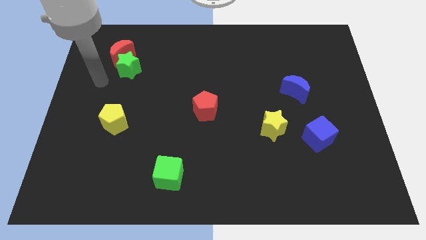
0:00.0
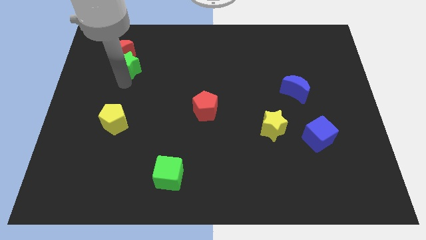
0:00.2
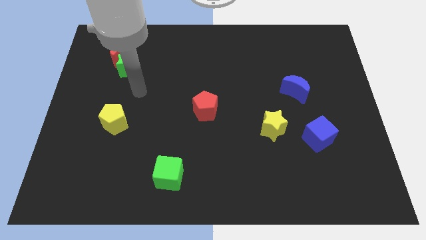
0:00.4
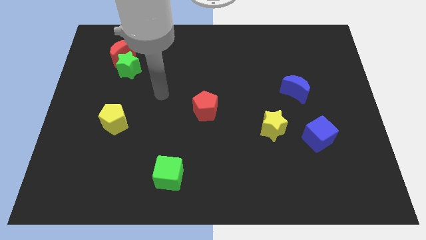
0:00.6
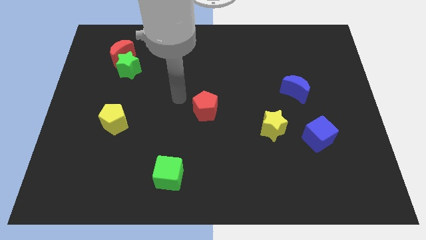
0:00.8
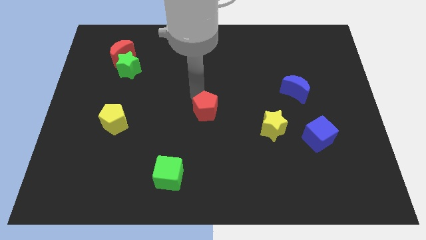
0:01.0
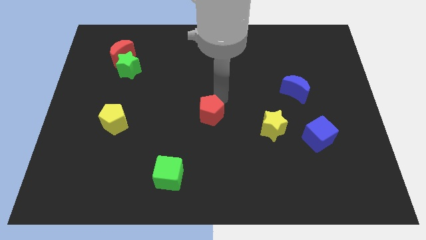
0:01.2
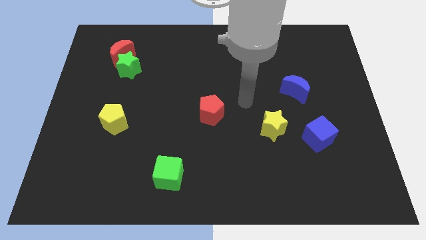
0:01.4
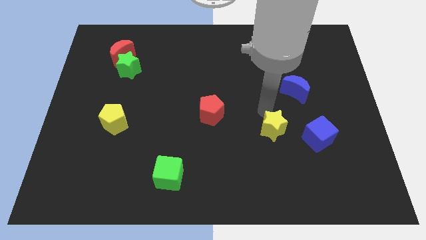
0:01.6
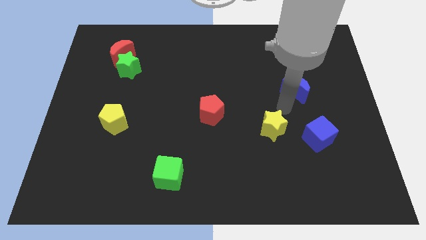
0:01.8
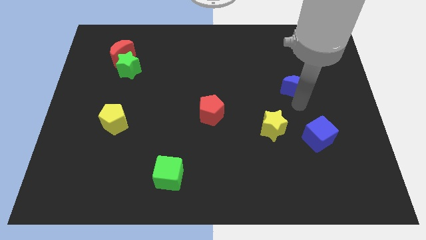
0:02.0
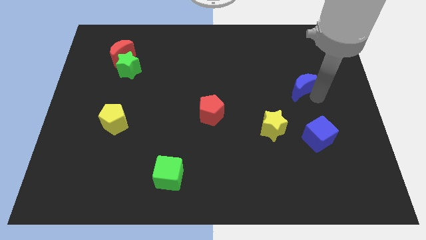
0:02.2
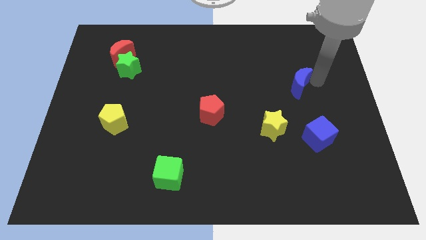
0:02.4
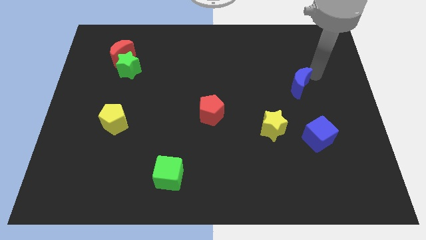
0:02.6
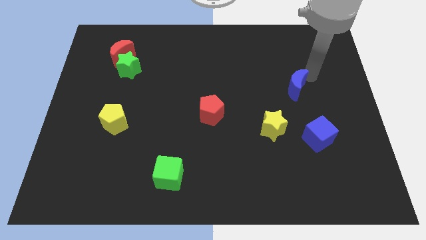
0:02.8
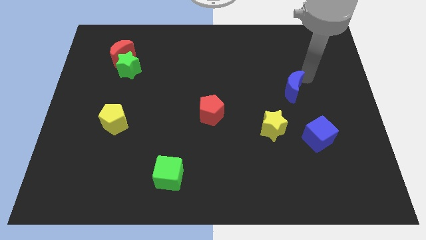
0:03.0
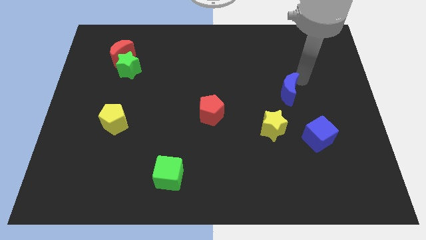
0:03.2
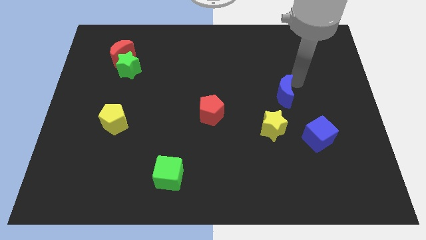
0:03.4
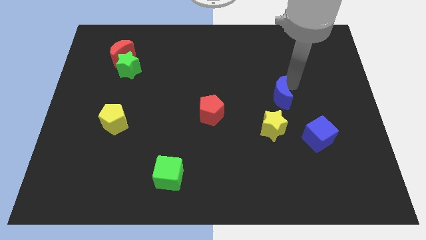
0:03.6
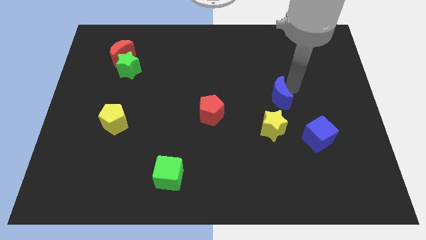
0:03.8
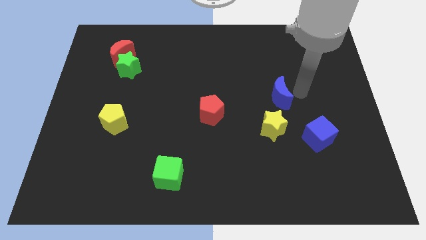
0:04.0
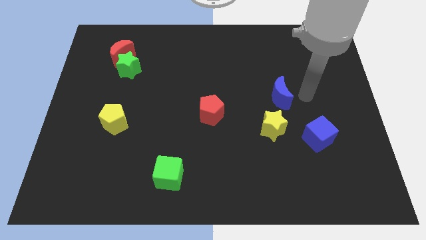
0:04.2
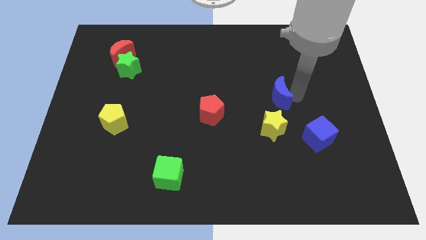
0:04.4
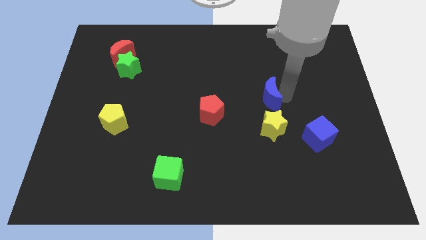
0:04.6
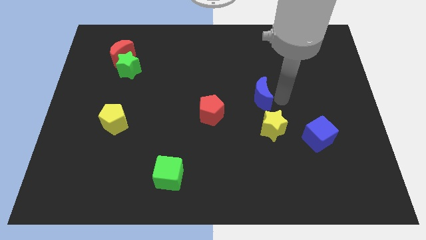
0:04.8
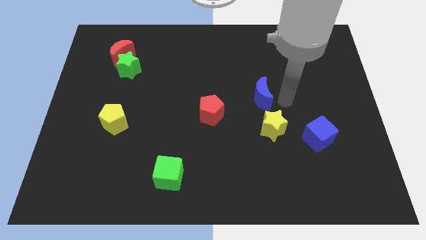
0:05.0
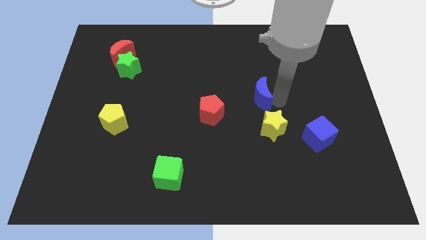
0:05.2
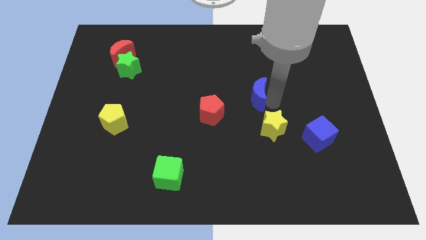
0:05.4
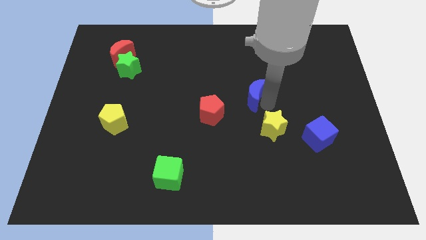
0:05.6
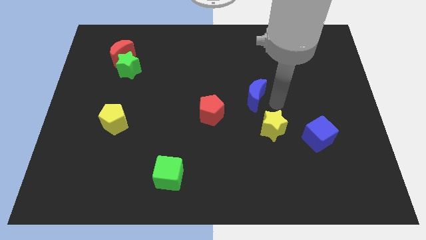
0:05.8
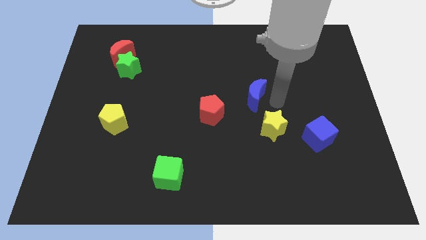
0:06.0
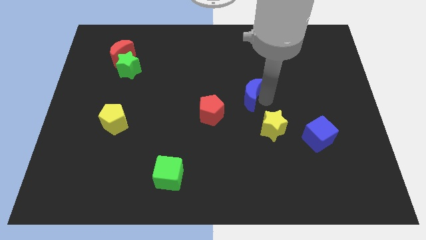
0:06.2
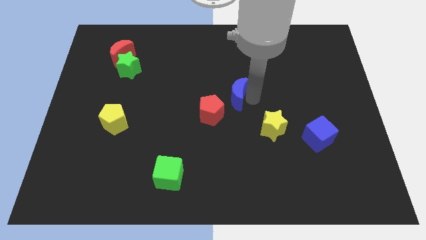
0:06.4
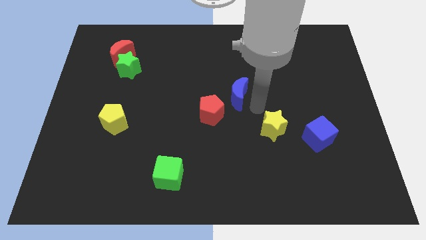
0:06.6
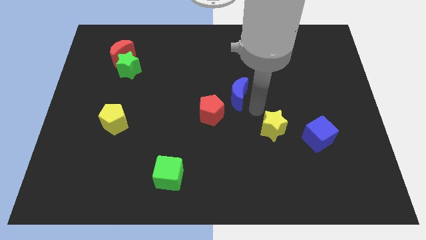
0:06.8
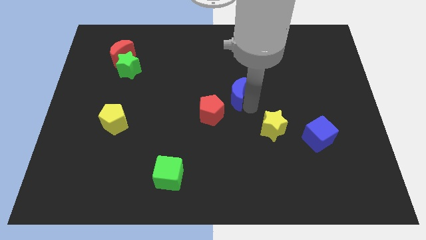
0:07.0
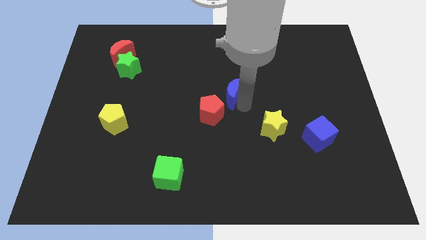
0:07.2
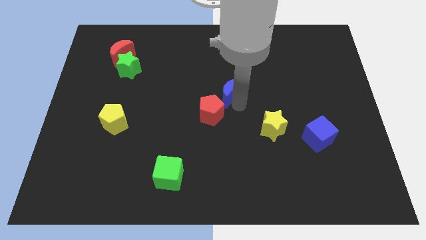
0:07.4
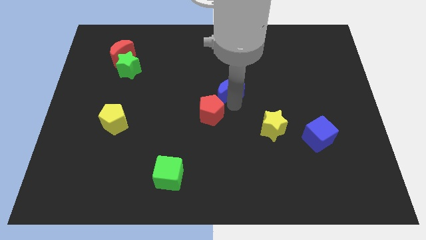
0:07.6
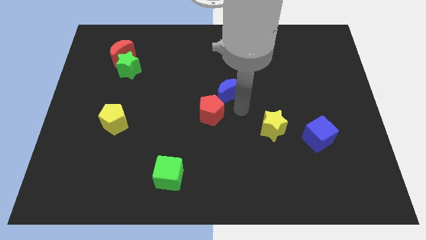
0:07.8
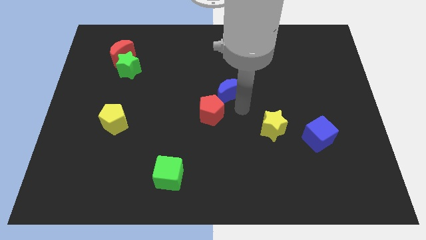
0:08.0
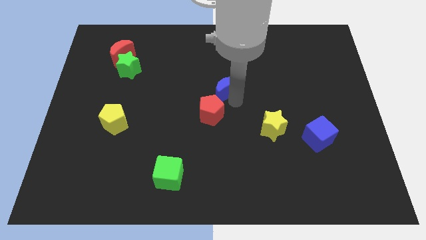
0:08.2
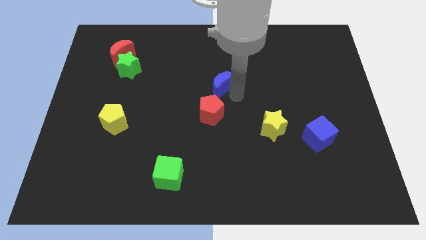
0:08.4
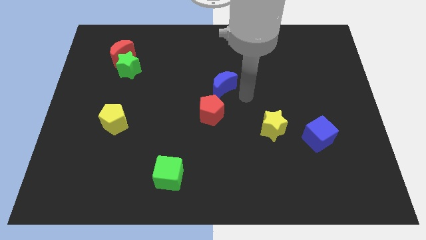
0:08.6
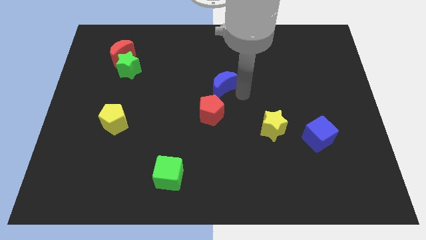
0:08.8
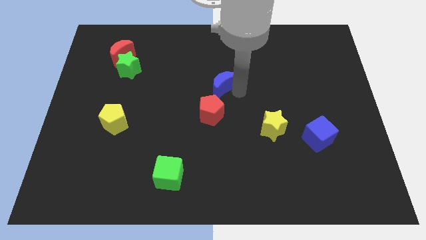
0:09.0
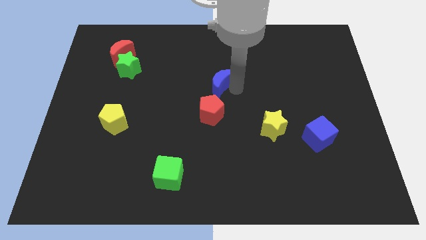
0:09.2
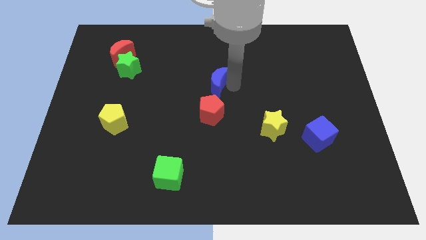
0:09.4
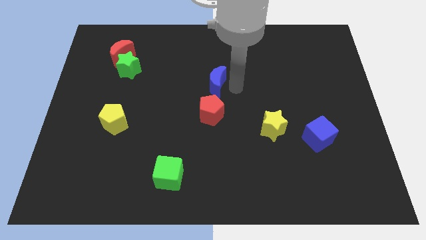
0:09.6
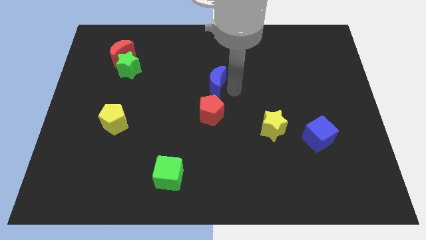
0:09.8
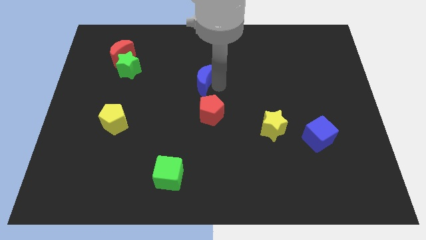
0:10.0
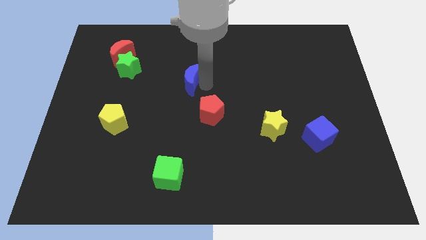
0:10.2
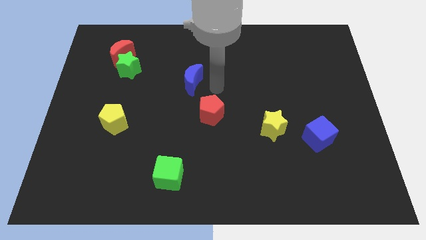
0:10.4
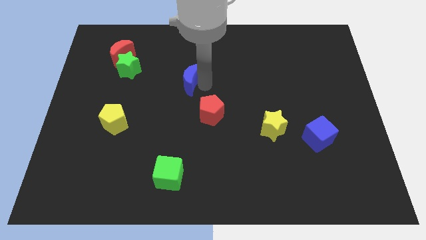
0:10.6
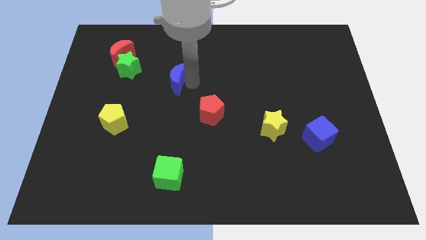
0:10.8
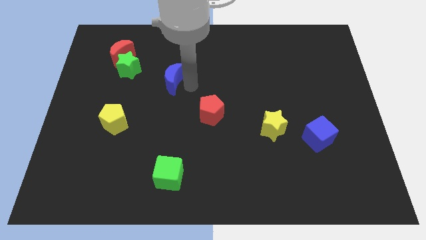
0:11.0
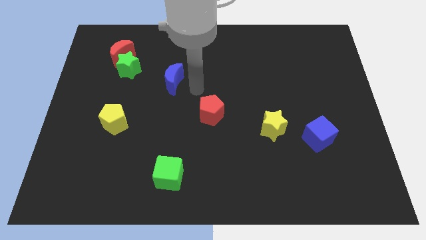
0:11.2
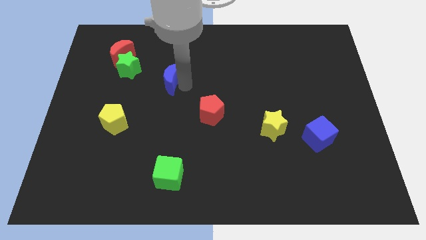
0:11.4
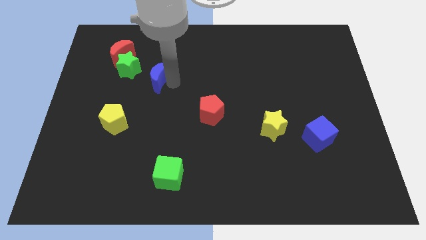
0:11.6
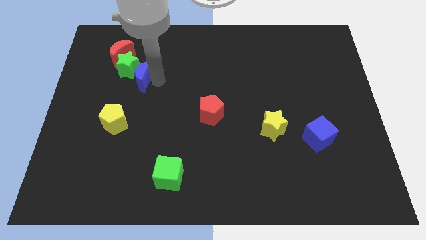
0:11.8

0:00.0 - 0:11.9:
move the blue moon to the green star

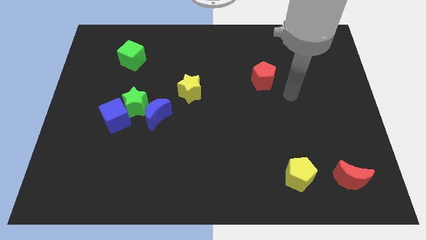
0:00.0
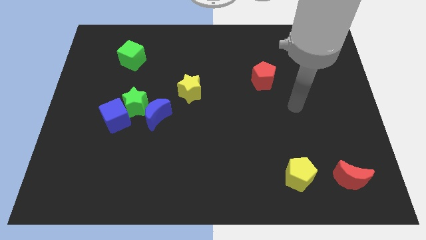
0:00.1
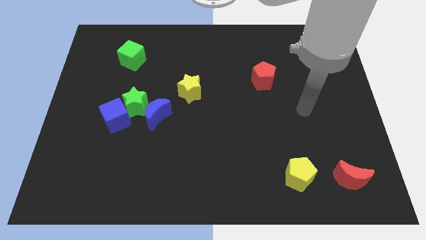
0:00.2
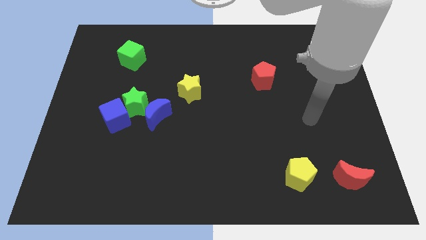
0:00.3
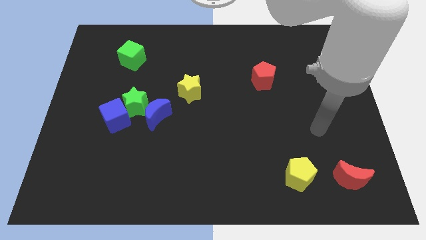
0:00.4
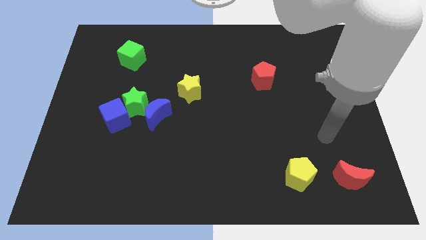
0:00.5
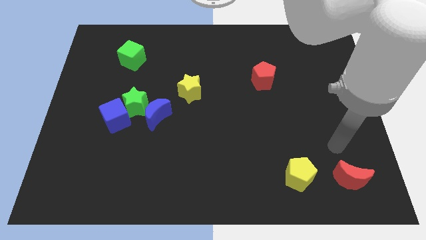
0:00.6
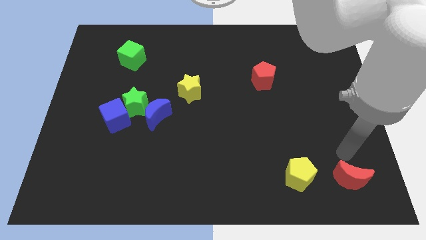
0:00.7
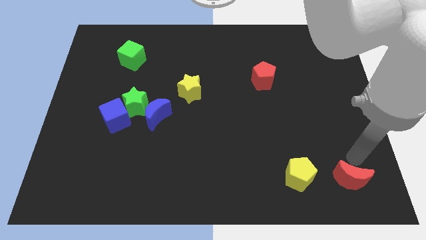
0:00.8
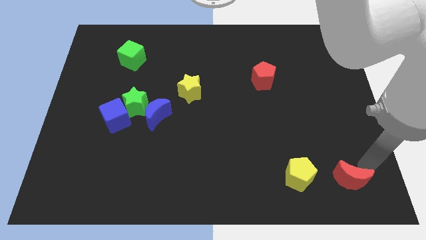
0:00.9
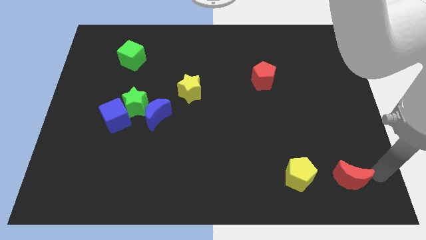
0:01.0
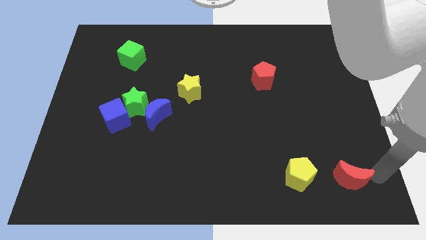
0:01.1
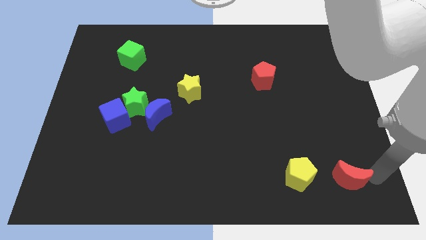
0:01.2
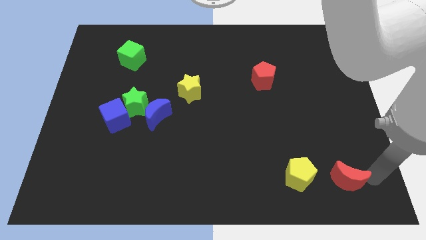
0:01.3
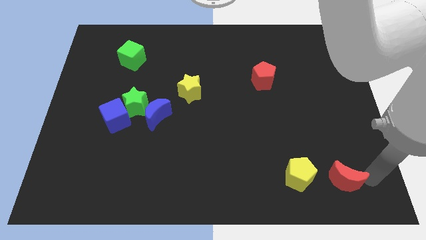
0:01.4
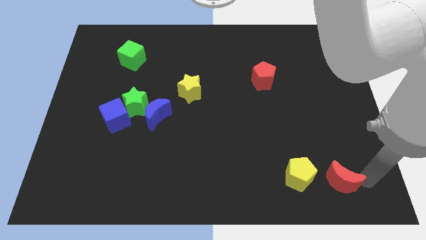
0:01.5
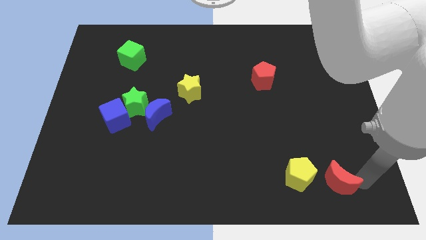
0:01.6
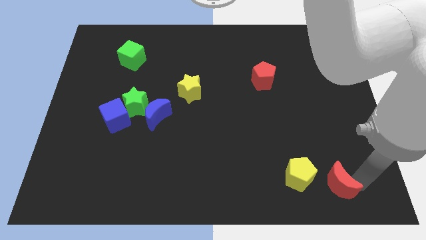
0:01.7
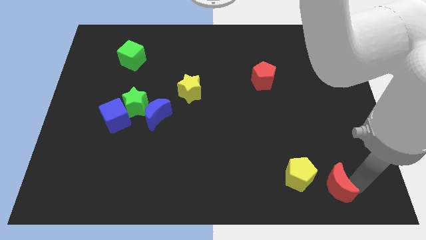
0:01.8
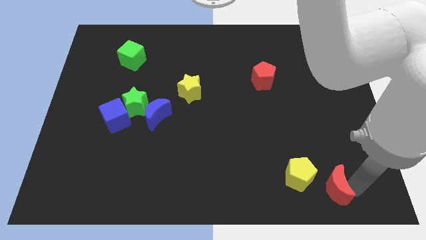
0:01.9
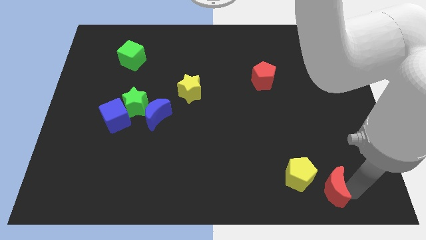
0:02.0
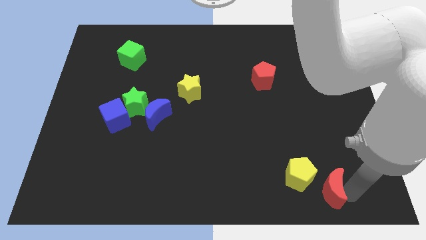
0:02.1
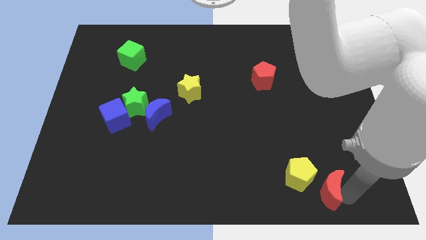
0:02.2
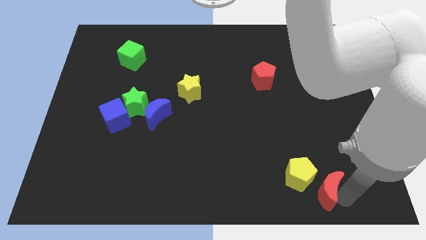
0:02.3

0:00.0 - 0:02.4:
move the red moon to the yellow pentagon
